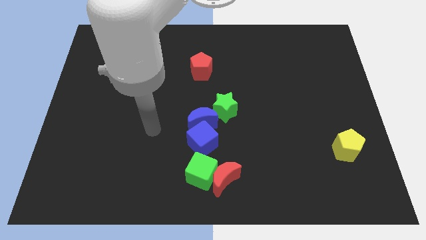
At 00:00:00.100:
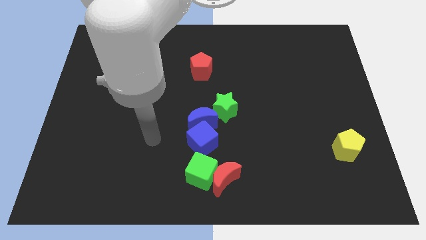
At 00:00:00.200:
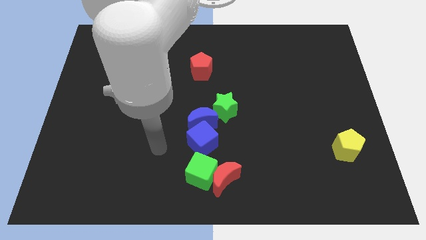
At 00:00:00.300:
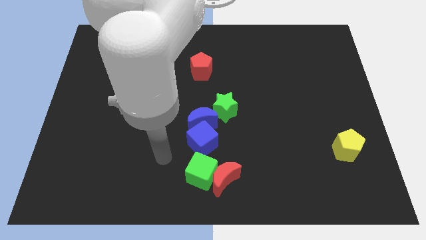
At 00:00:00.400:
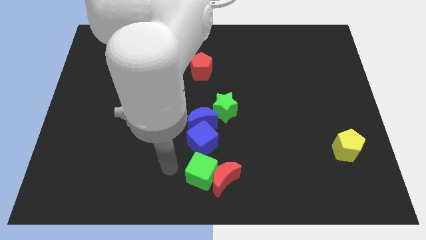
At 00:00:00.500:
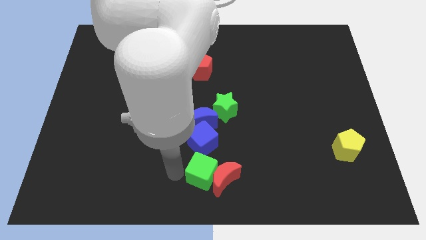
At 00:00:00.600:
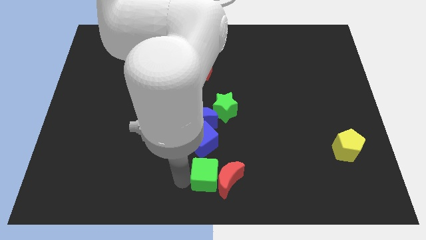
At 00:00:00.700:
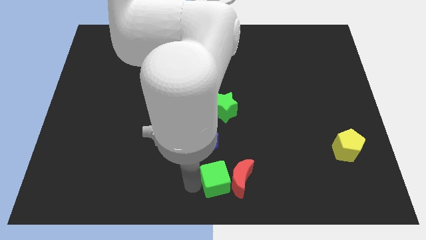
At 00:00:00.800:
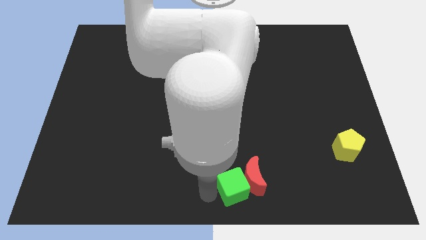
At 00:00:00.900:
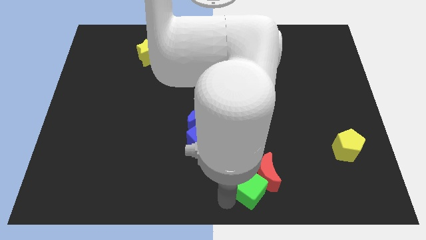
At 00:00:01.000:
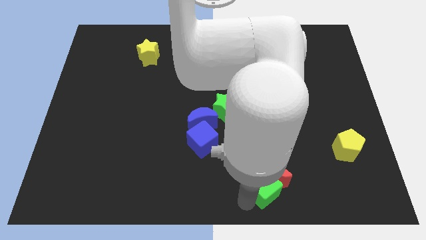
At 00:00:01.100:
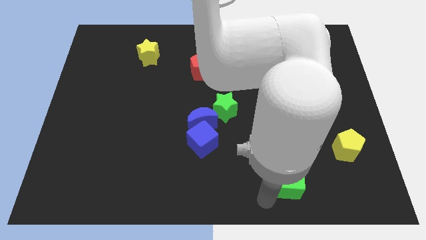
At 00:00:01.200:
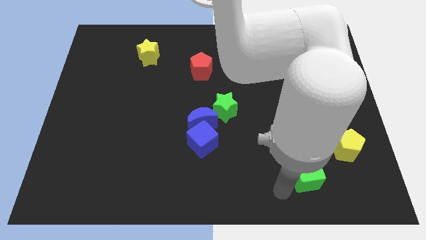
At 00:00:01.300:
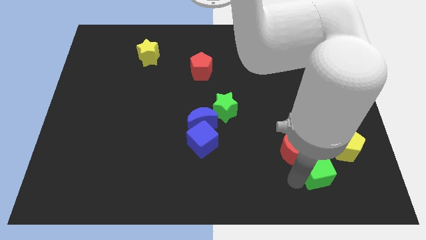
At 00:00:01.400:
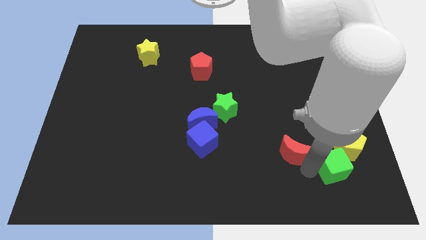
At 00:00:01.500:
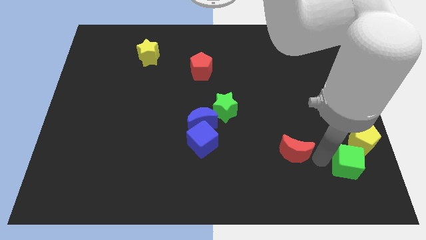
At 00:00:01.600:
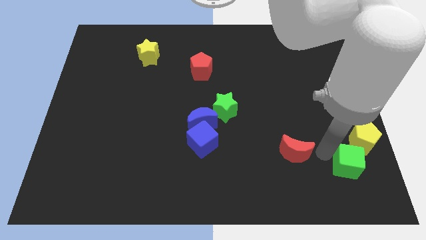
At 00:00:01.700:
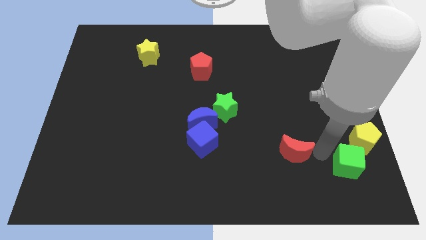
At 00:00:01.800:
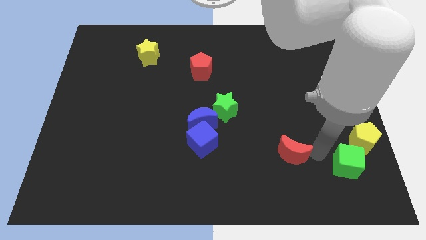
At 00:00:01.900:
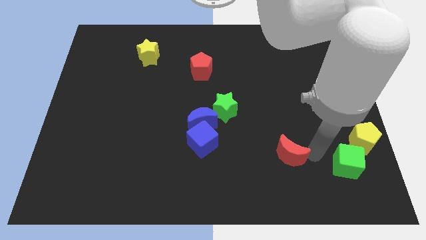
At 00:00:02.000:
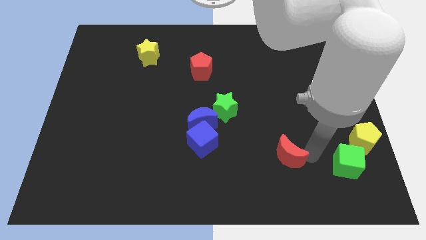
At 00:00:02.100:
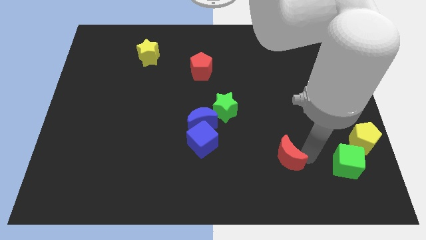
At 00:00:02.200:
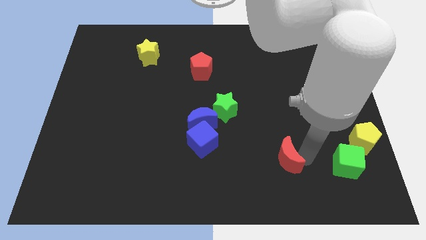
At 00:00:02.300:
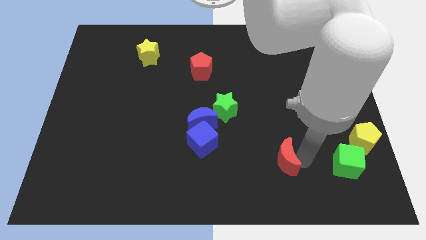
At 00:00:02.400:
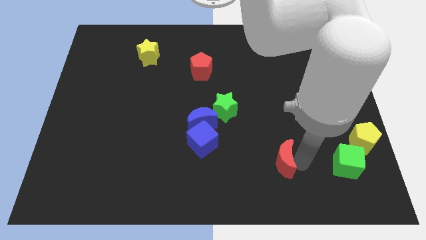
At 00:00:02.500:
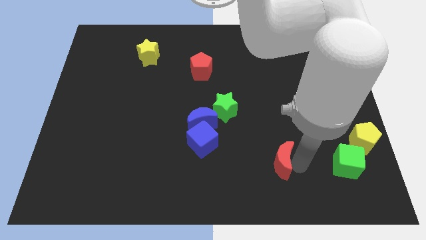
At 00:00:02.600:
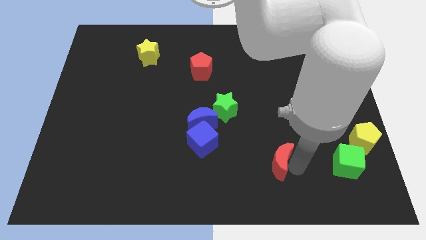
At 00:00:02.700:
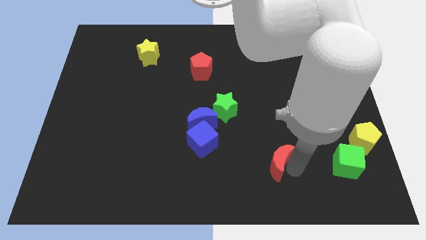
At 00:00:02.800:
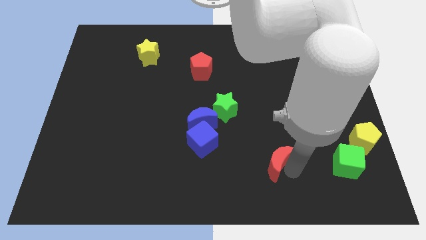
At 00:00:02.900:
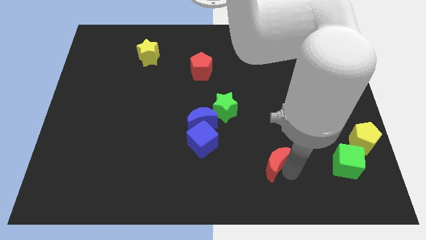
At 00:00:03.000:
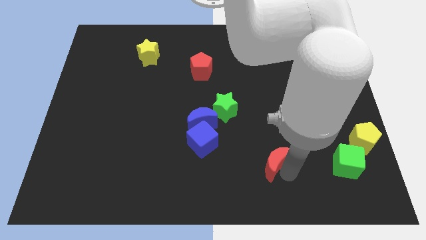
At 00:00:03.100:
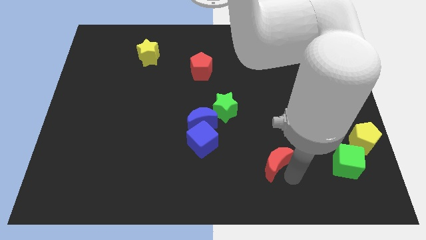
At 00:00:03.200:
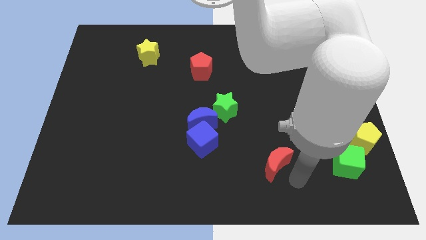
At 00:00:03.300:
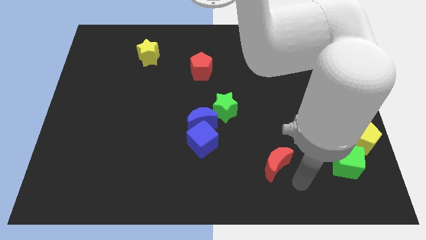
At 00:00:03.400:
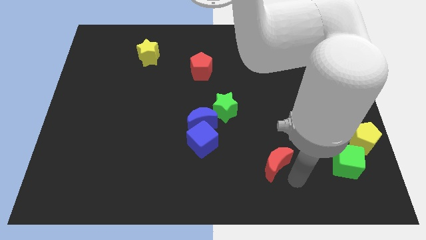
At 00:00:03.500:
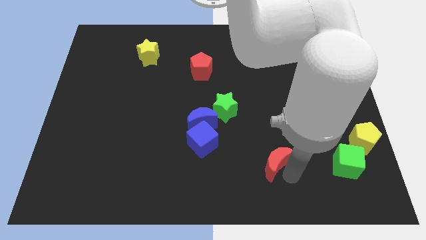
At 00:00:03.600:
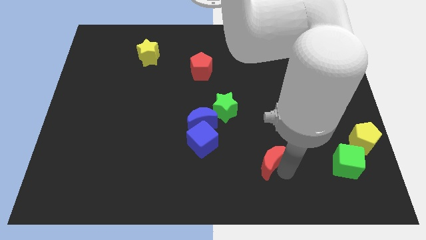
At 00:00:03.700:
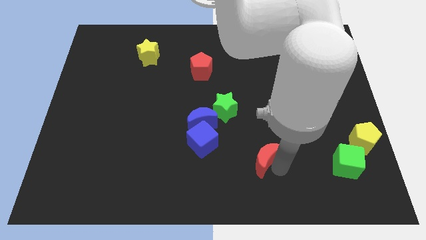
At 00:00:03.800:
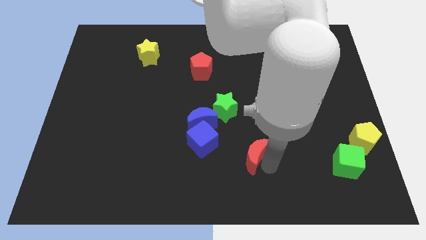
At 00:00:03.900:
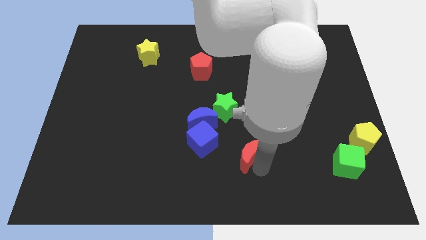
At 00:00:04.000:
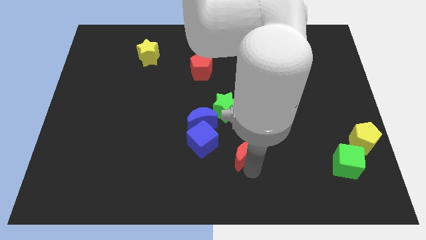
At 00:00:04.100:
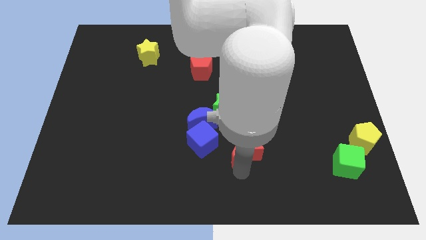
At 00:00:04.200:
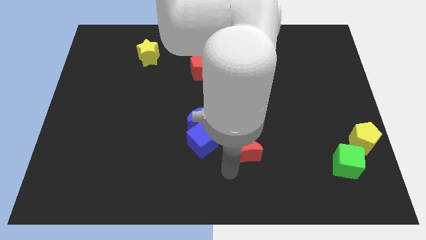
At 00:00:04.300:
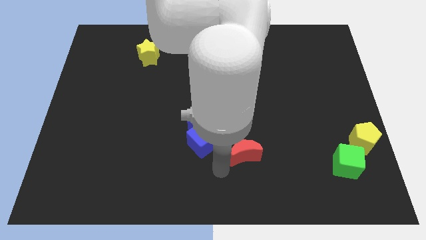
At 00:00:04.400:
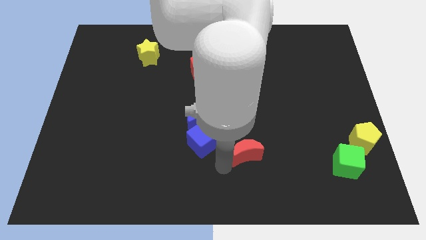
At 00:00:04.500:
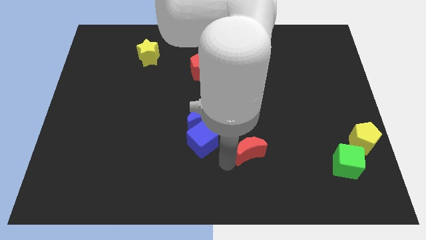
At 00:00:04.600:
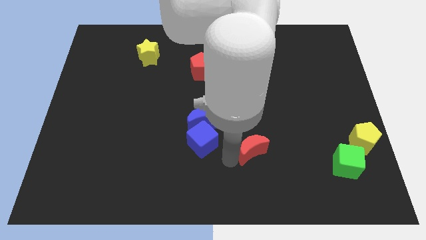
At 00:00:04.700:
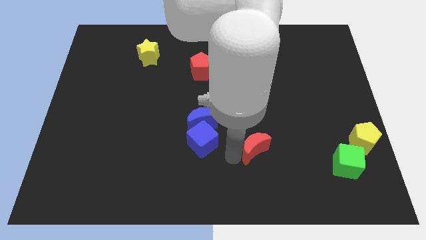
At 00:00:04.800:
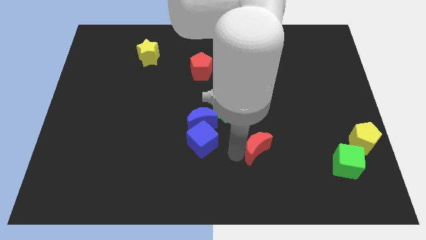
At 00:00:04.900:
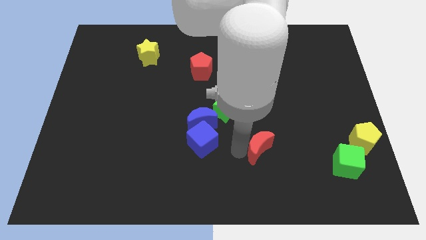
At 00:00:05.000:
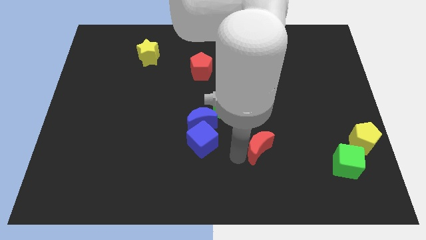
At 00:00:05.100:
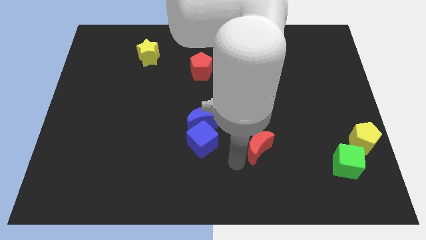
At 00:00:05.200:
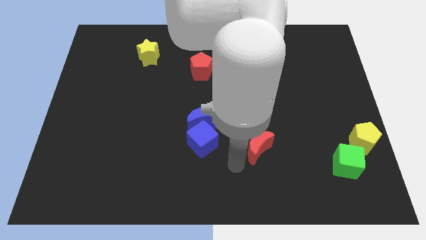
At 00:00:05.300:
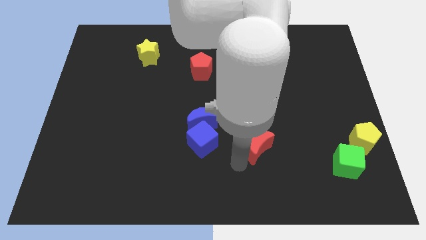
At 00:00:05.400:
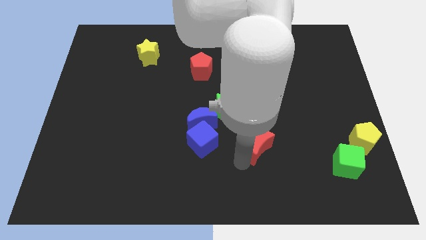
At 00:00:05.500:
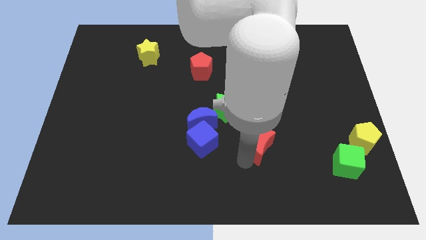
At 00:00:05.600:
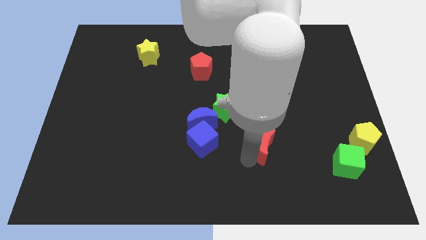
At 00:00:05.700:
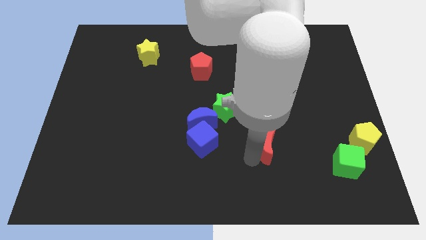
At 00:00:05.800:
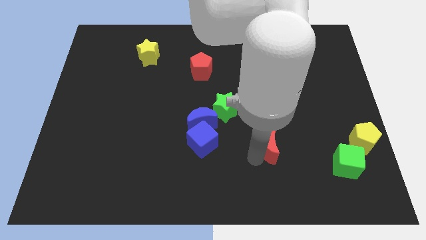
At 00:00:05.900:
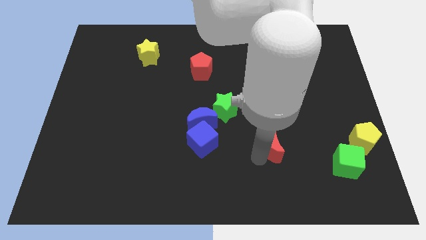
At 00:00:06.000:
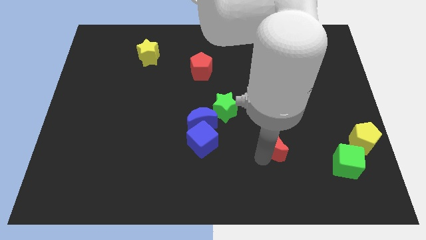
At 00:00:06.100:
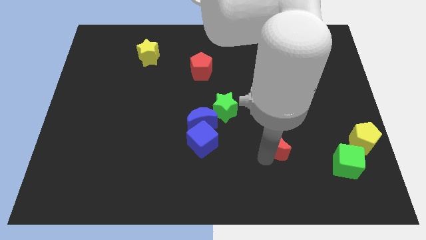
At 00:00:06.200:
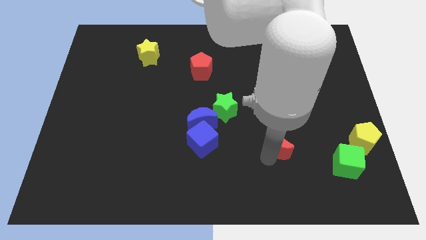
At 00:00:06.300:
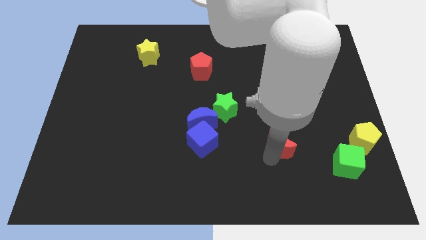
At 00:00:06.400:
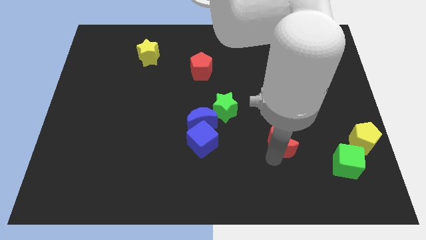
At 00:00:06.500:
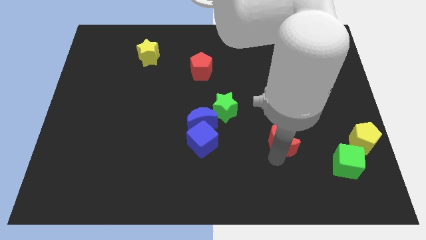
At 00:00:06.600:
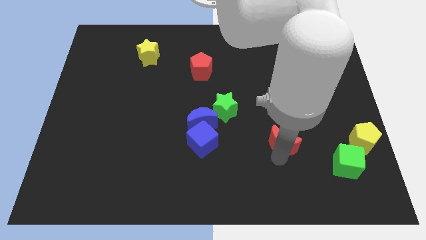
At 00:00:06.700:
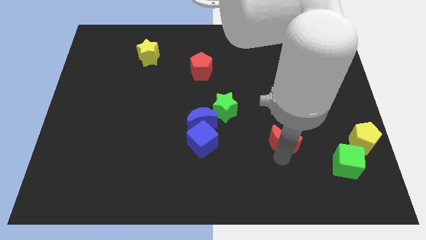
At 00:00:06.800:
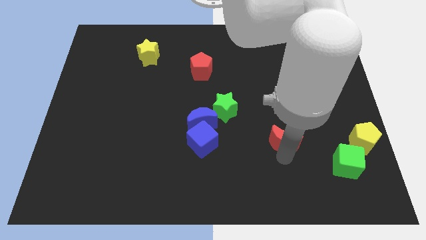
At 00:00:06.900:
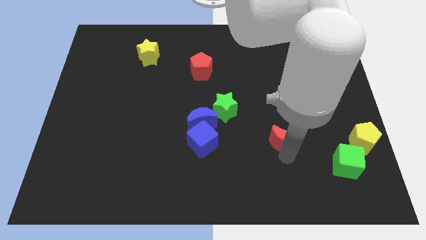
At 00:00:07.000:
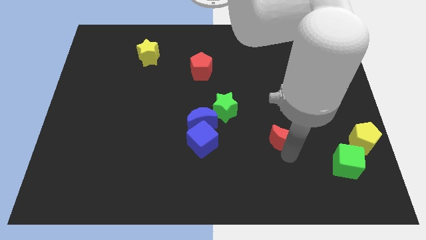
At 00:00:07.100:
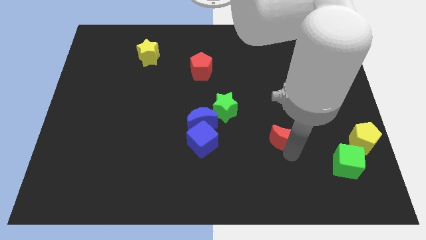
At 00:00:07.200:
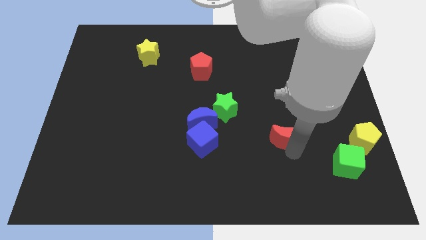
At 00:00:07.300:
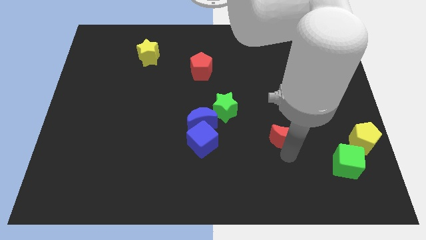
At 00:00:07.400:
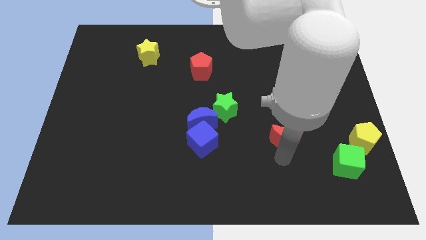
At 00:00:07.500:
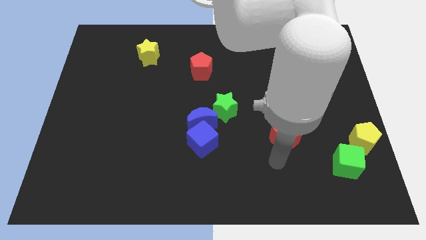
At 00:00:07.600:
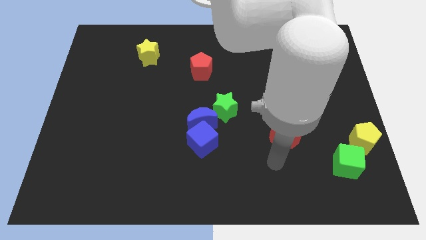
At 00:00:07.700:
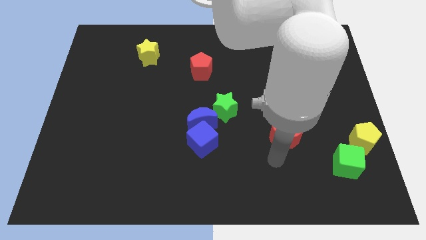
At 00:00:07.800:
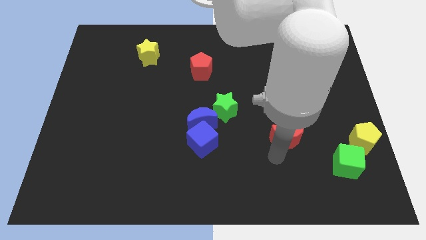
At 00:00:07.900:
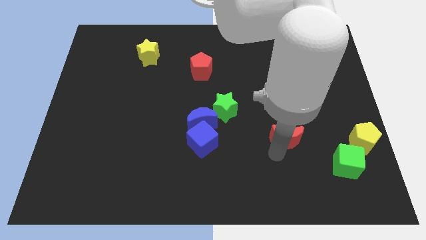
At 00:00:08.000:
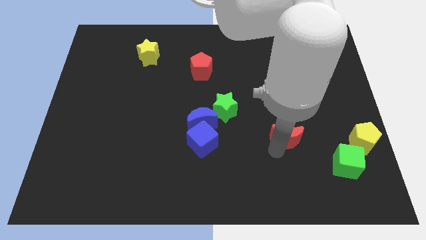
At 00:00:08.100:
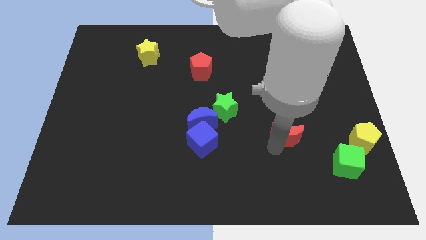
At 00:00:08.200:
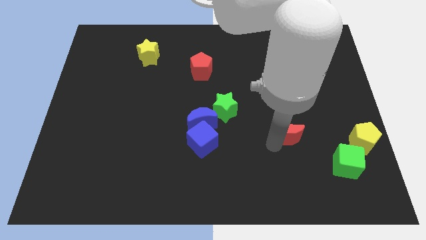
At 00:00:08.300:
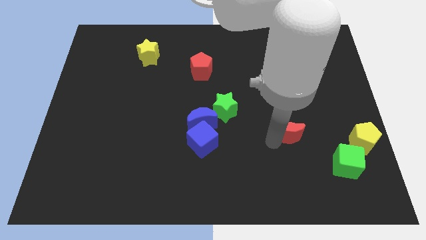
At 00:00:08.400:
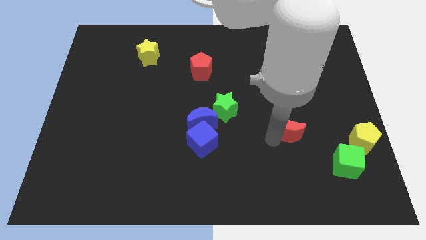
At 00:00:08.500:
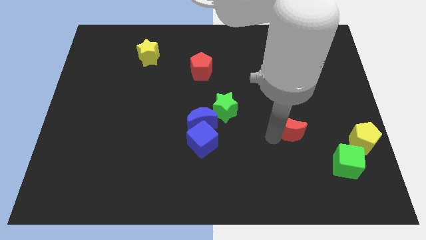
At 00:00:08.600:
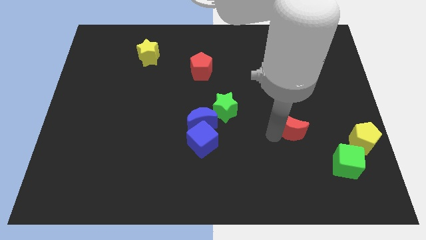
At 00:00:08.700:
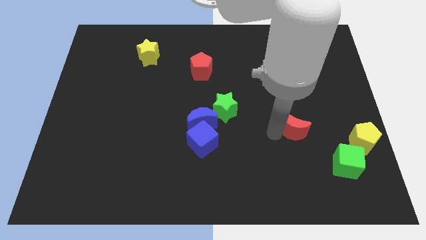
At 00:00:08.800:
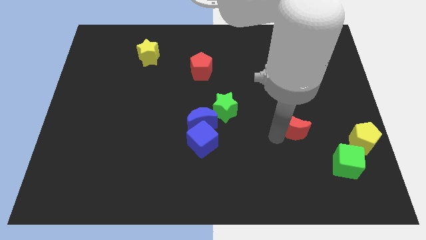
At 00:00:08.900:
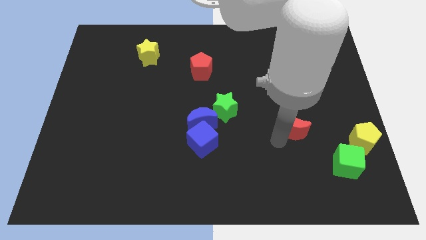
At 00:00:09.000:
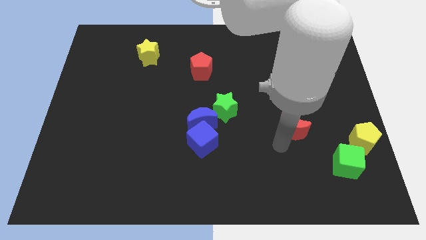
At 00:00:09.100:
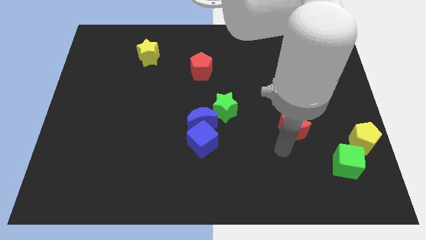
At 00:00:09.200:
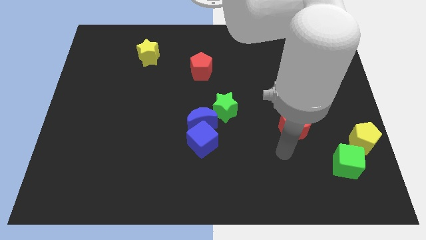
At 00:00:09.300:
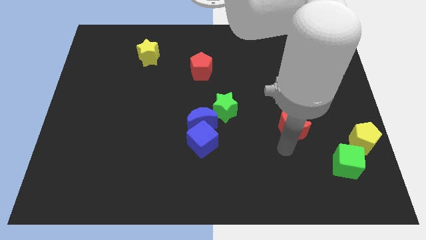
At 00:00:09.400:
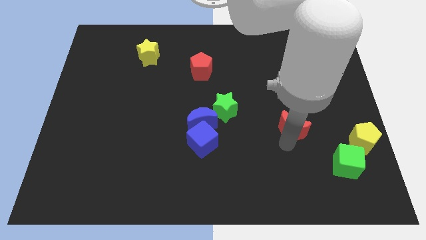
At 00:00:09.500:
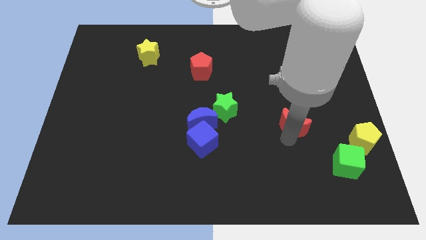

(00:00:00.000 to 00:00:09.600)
push the red moon upwards and right
